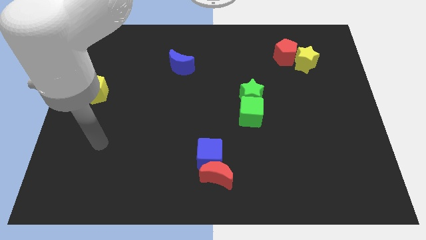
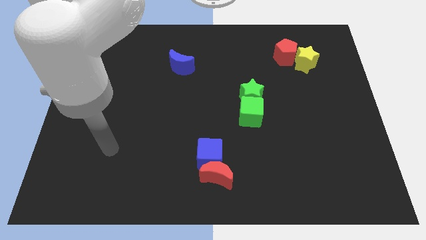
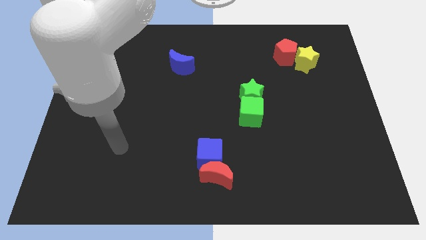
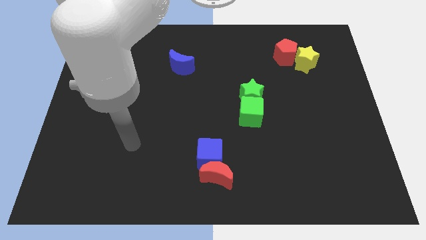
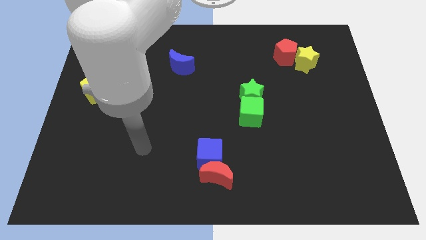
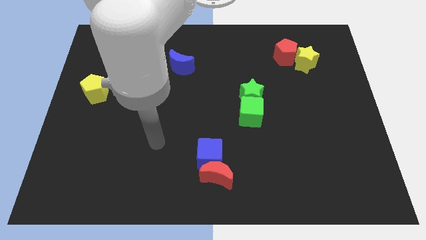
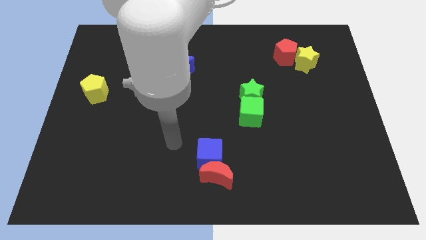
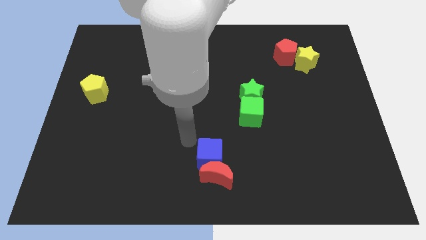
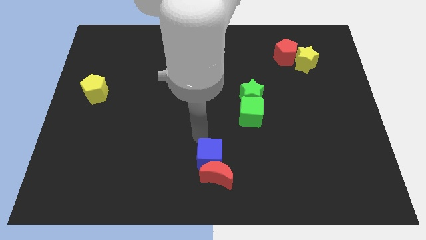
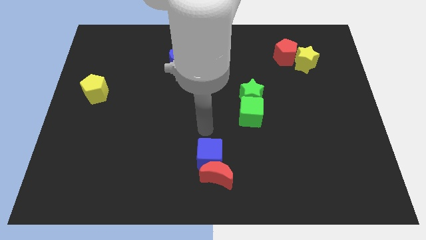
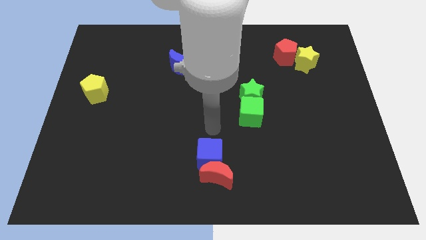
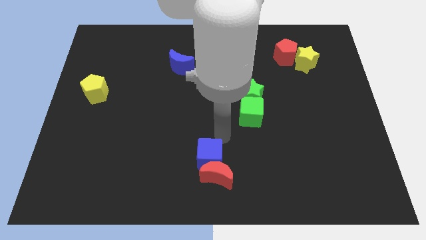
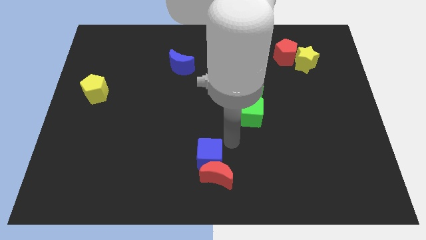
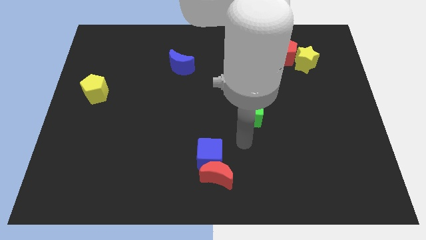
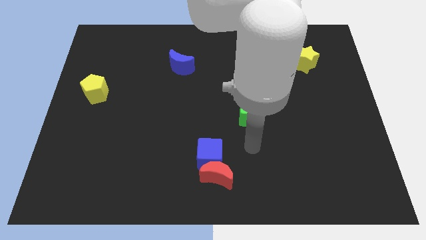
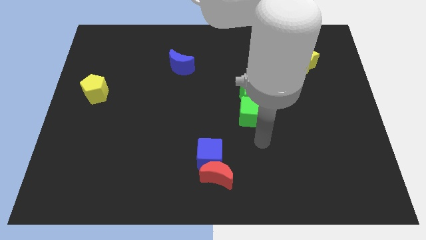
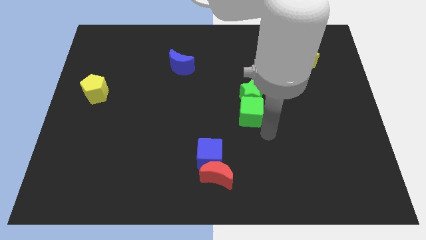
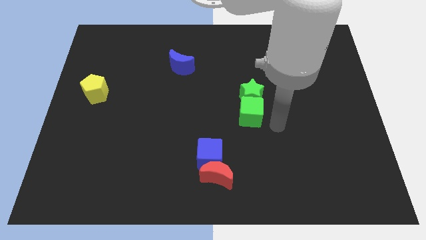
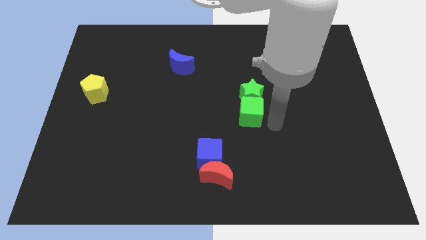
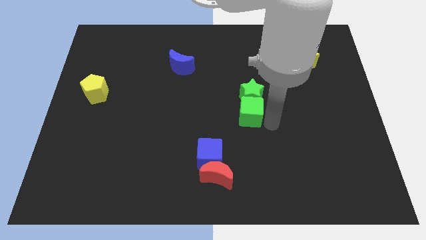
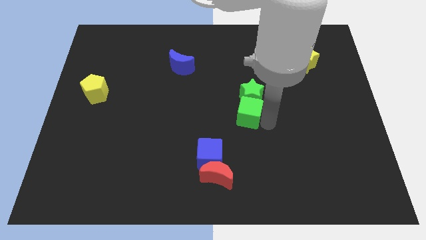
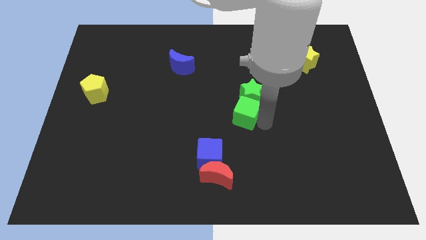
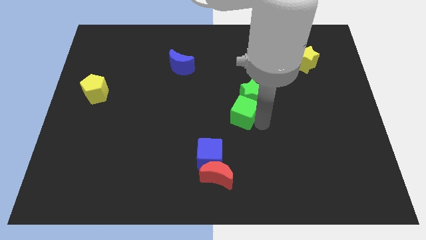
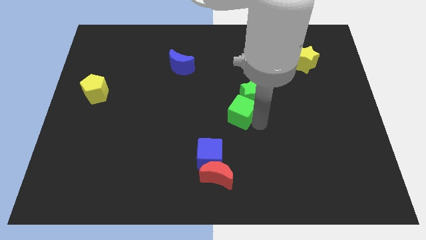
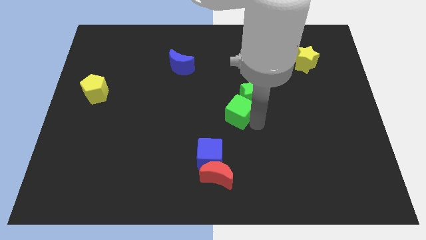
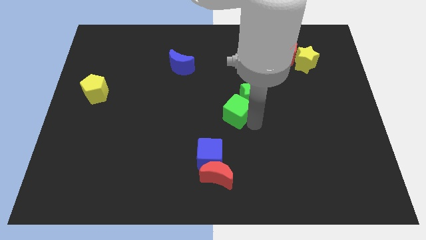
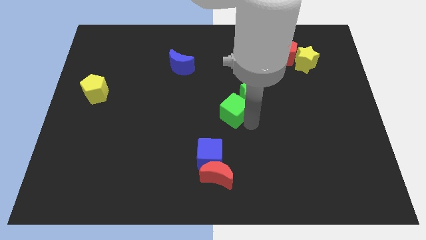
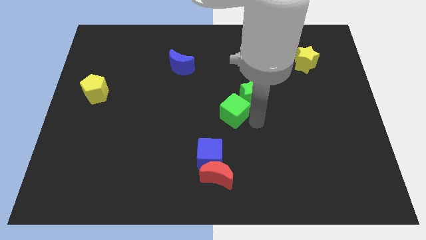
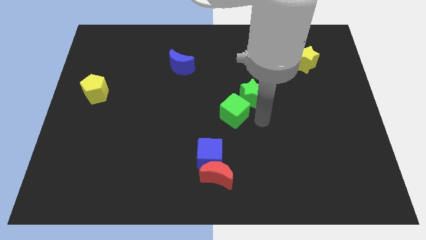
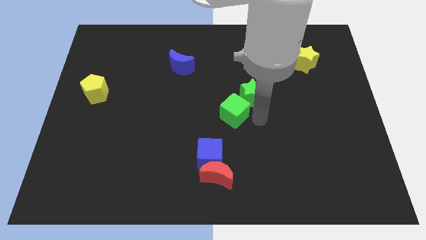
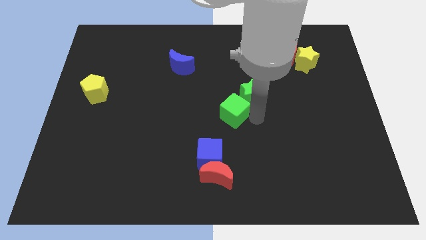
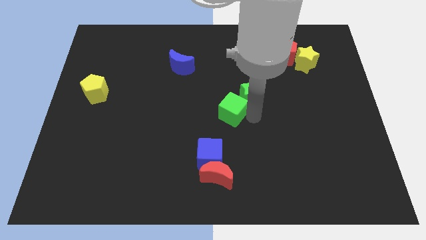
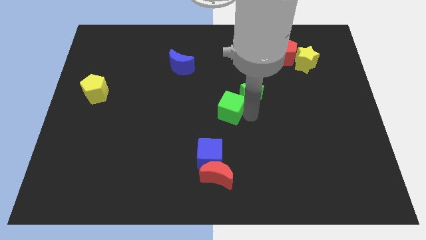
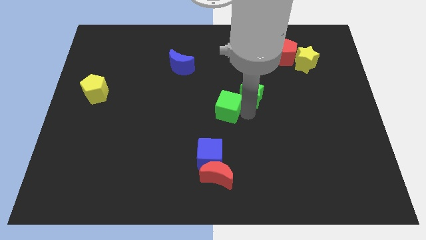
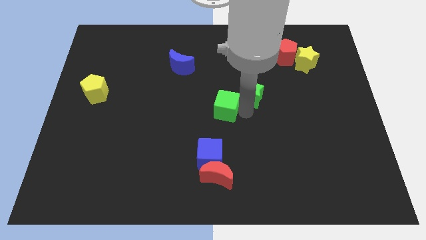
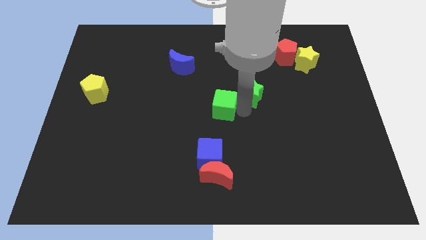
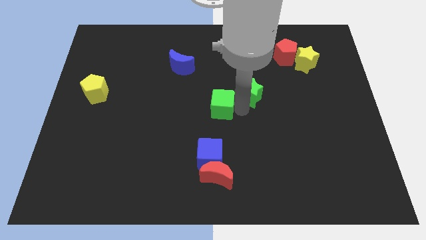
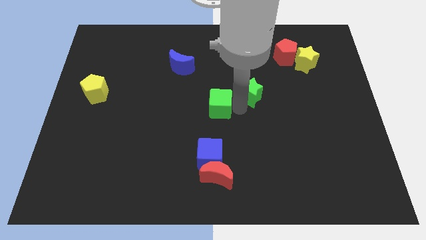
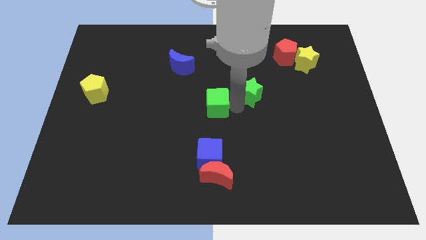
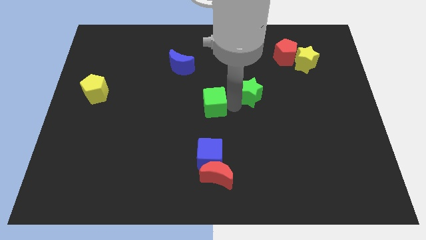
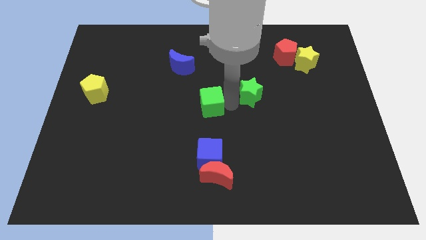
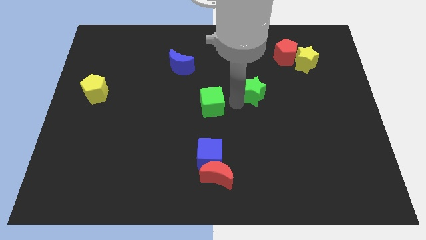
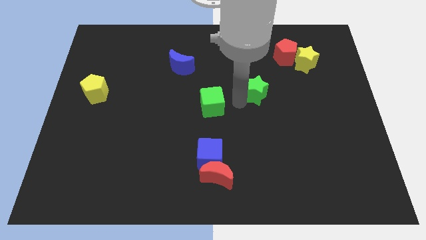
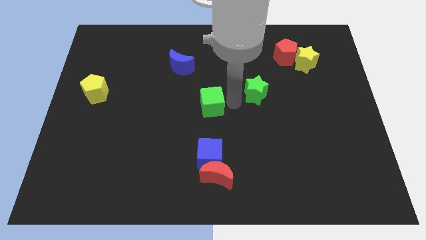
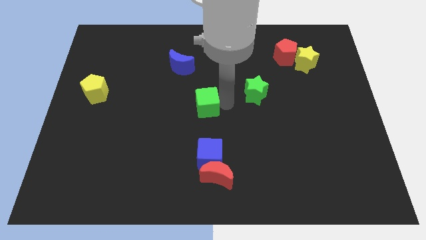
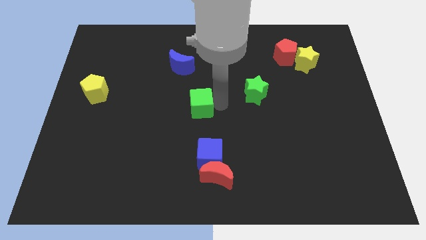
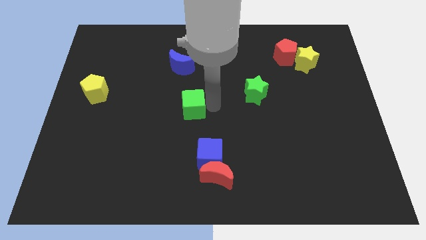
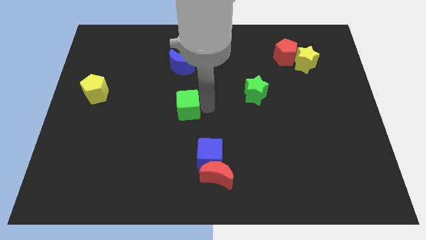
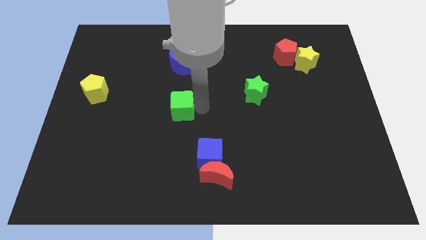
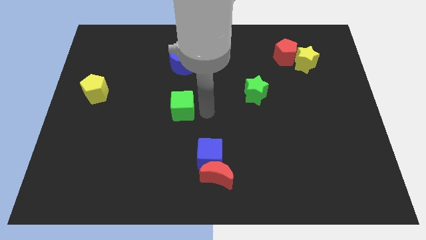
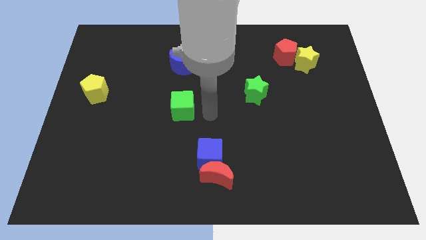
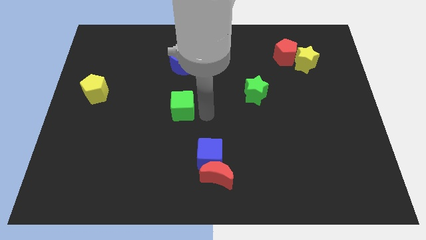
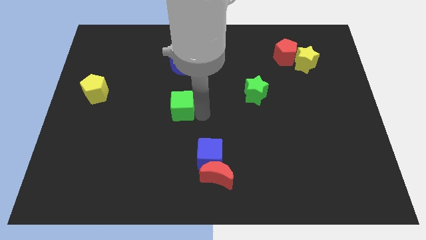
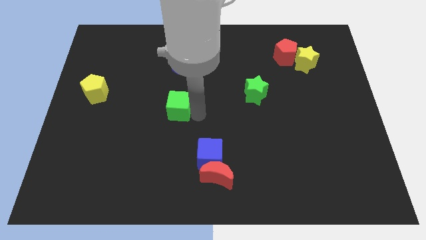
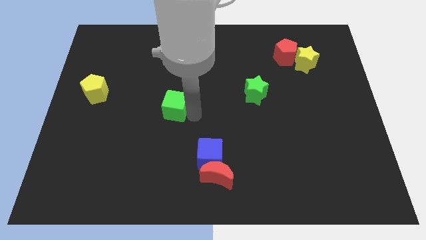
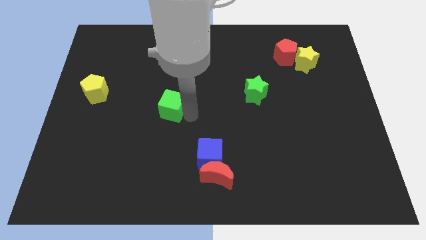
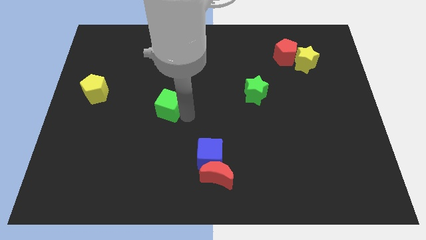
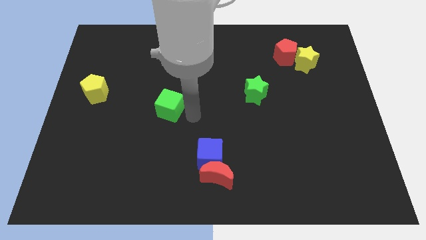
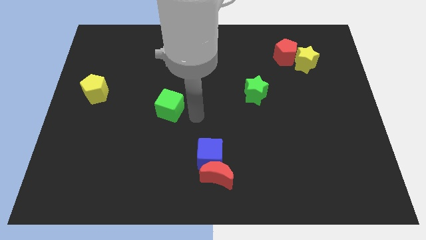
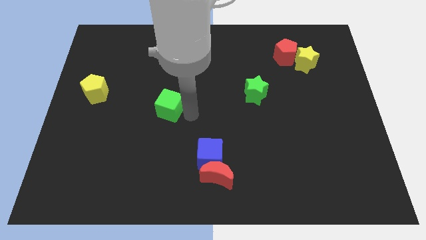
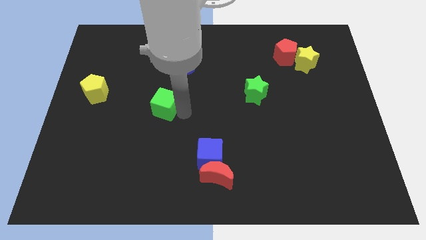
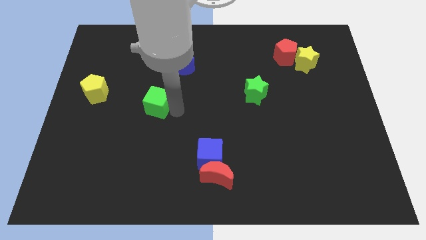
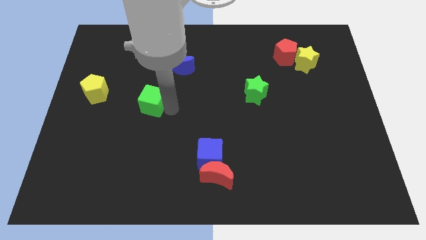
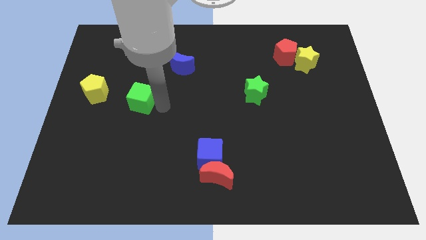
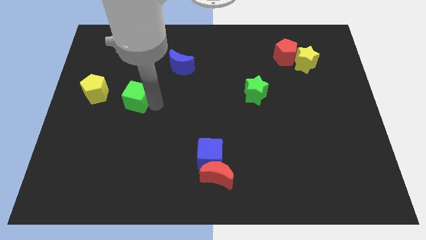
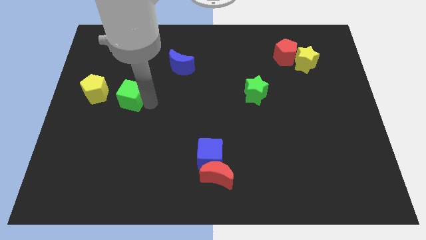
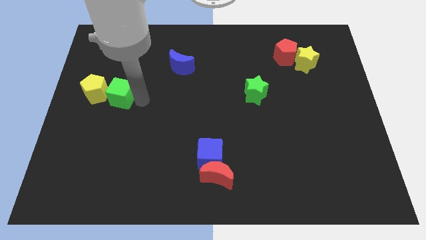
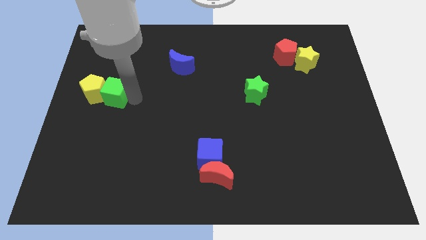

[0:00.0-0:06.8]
slide the green cube to the yellow pentagon
